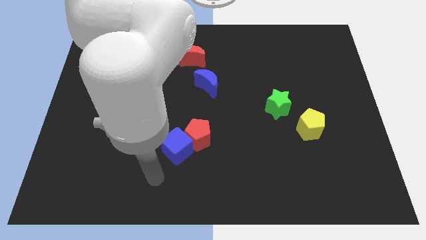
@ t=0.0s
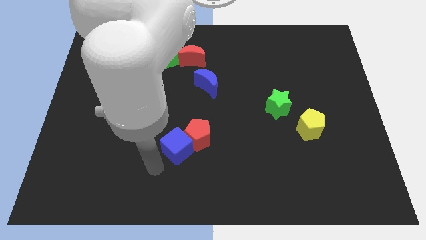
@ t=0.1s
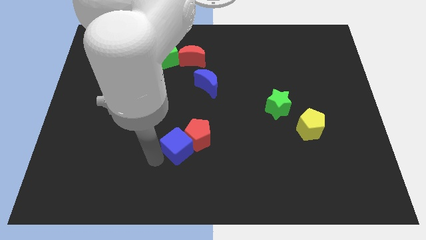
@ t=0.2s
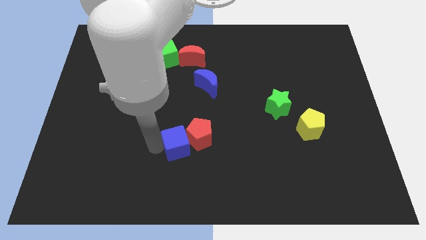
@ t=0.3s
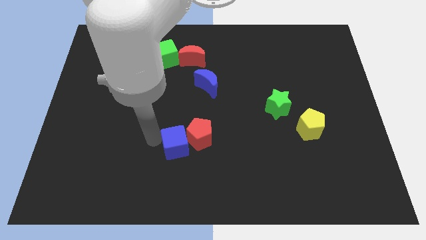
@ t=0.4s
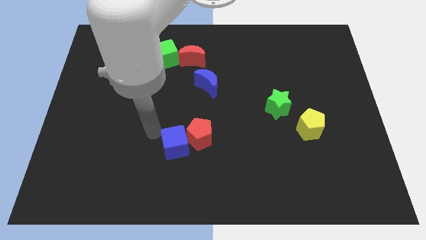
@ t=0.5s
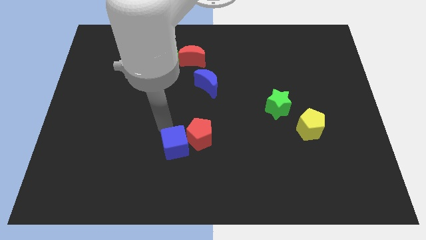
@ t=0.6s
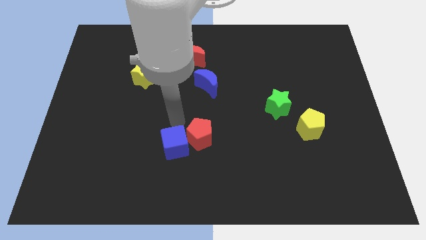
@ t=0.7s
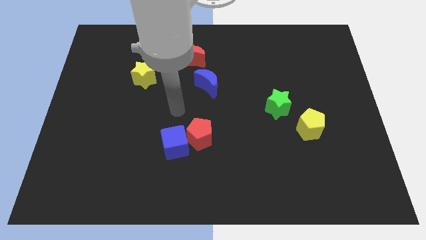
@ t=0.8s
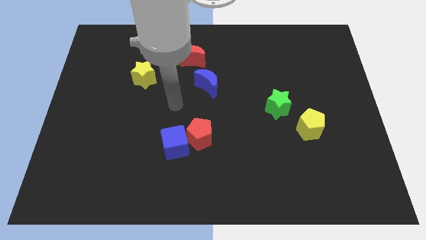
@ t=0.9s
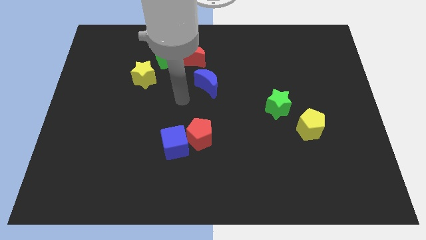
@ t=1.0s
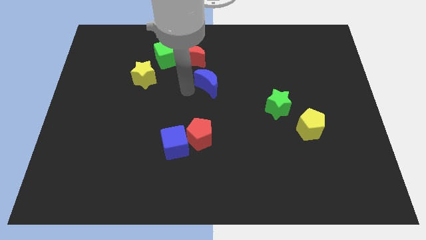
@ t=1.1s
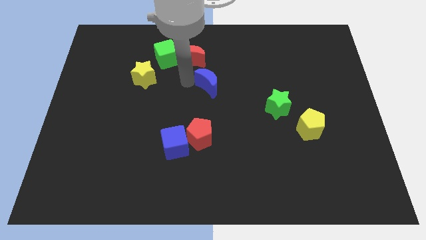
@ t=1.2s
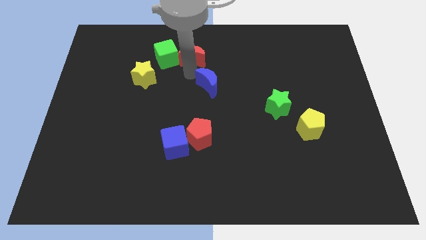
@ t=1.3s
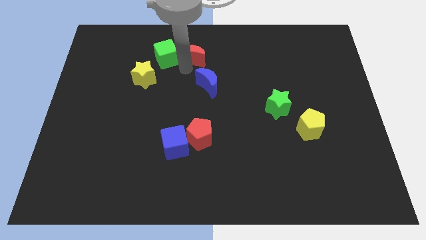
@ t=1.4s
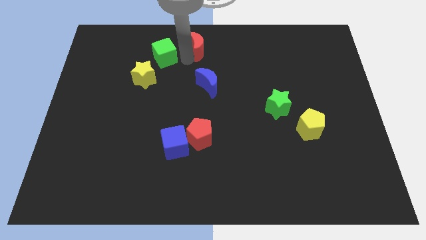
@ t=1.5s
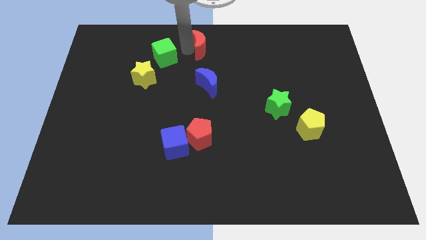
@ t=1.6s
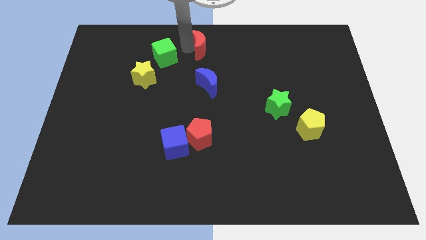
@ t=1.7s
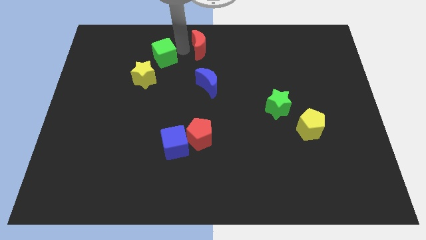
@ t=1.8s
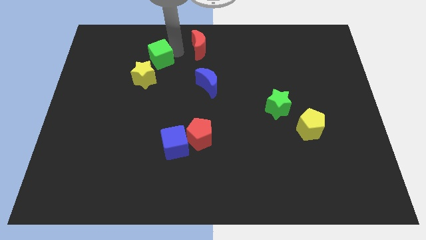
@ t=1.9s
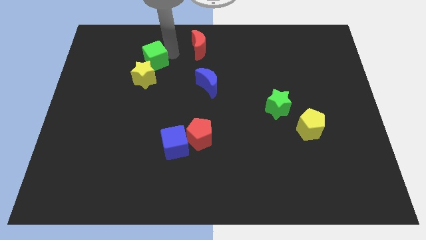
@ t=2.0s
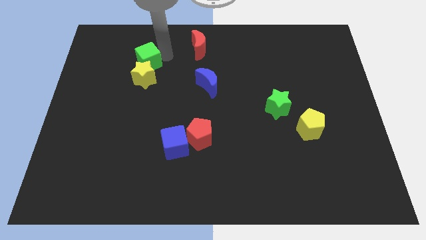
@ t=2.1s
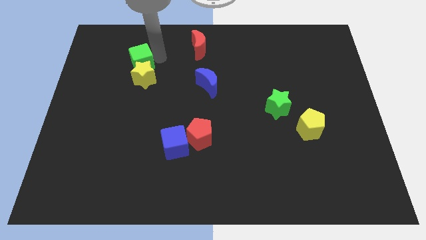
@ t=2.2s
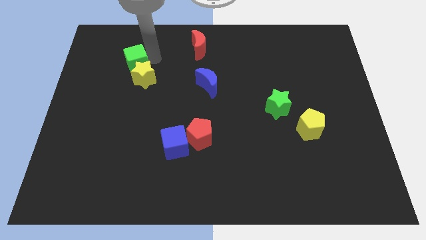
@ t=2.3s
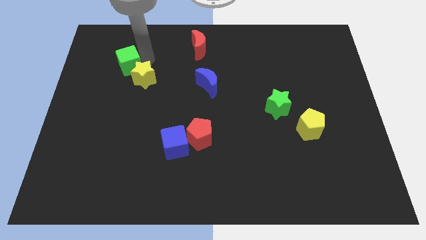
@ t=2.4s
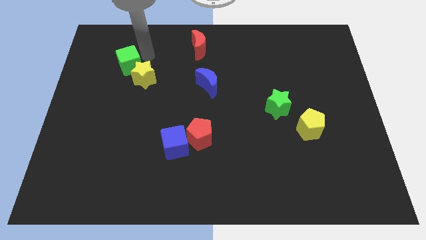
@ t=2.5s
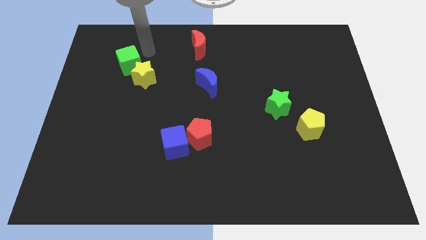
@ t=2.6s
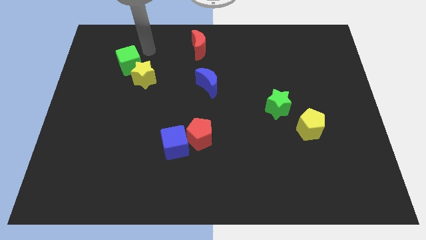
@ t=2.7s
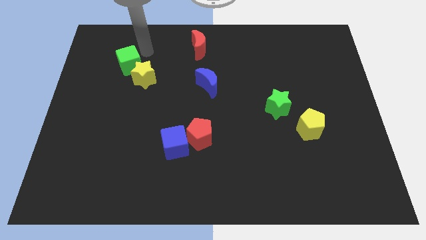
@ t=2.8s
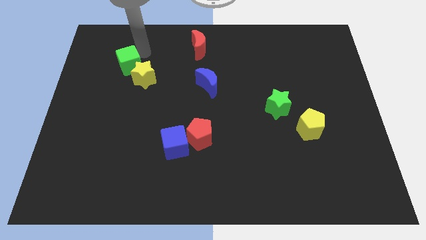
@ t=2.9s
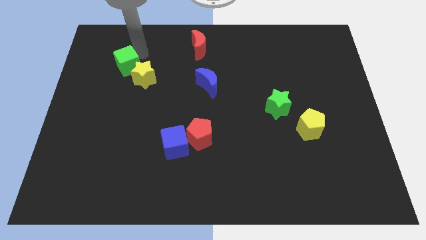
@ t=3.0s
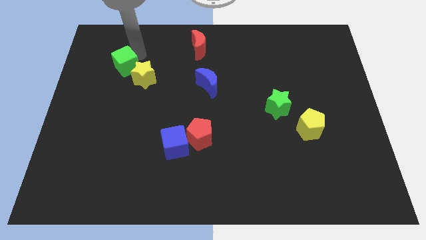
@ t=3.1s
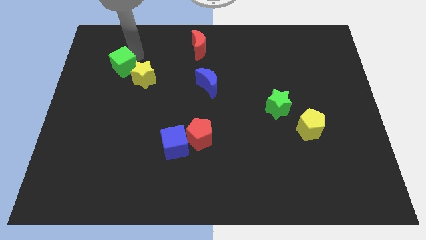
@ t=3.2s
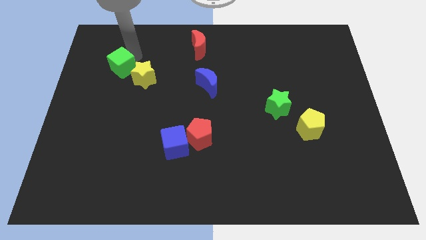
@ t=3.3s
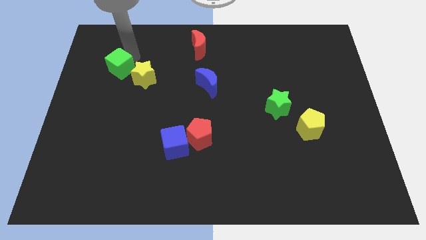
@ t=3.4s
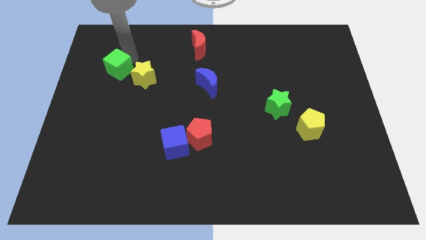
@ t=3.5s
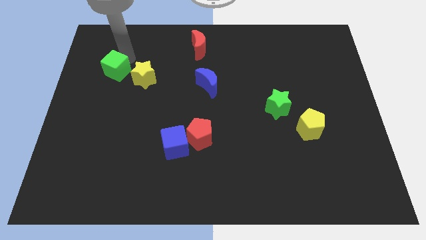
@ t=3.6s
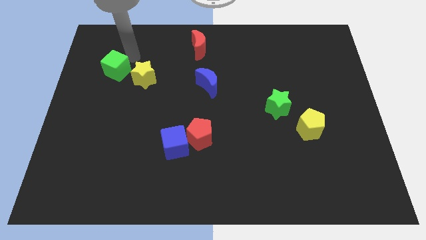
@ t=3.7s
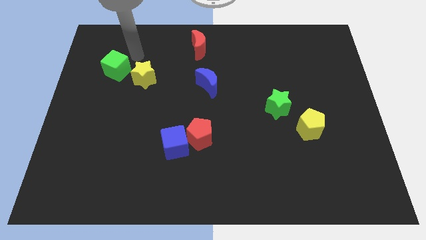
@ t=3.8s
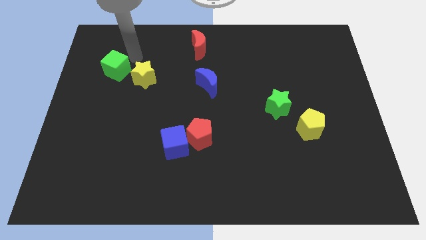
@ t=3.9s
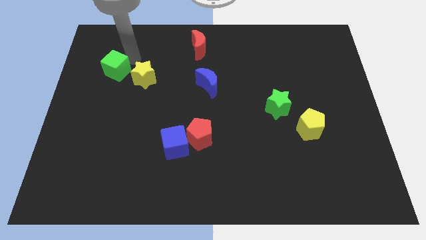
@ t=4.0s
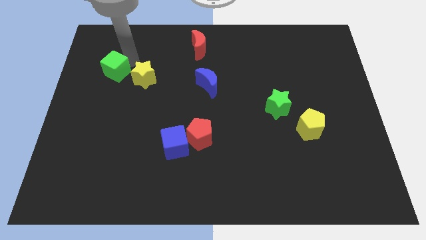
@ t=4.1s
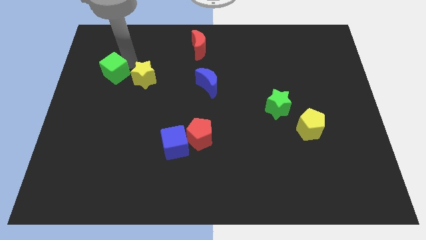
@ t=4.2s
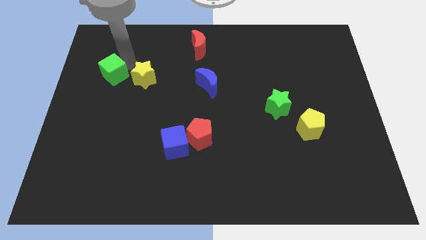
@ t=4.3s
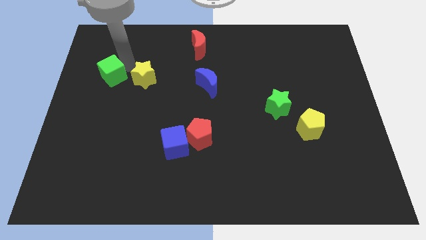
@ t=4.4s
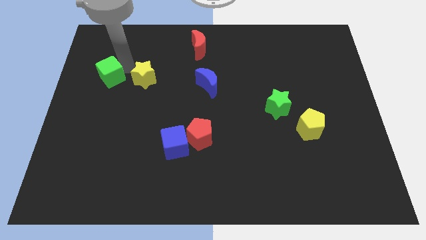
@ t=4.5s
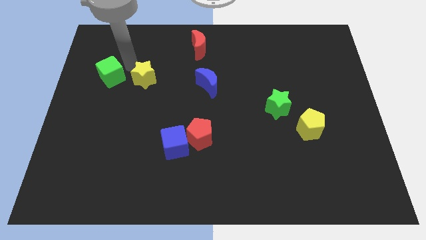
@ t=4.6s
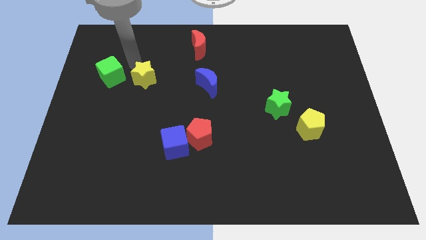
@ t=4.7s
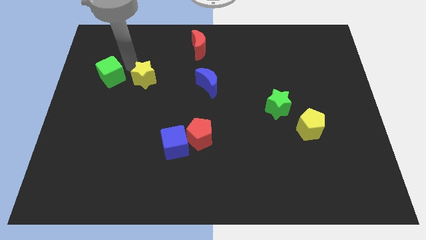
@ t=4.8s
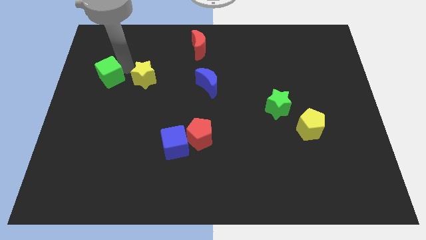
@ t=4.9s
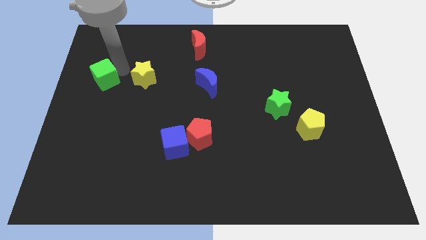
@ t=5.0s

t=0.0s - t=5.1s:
move the green cube to the center left
